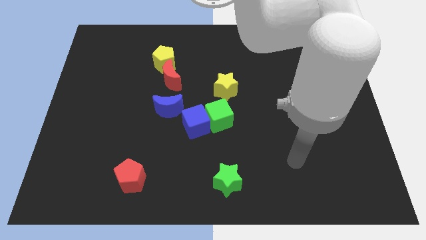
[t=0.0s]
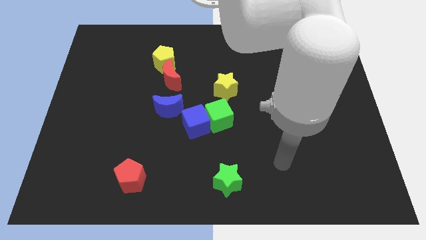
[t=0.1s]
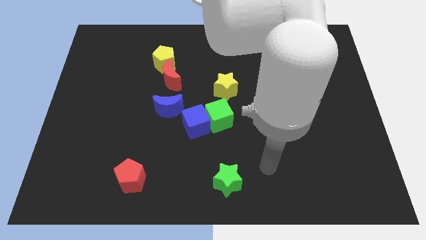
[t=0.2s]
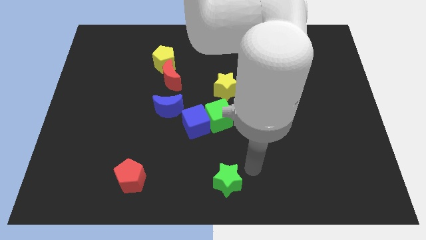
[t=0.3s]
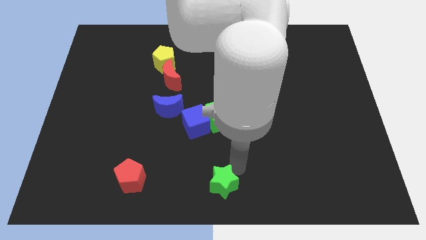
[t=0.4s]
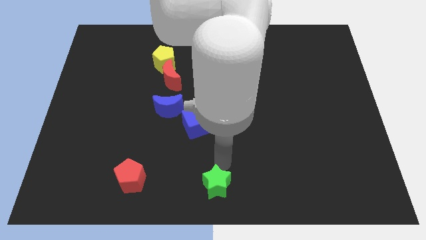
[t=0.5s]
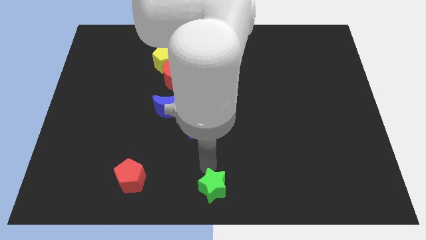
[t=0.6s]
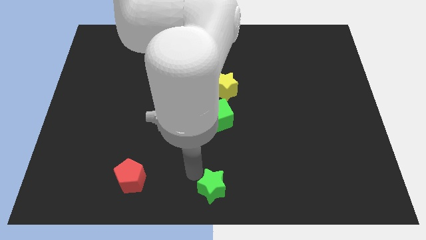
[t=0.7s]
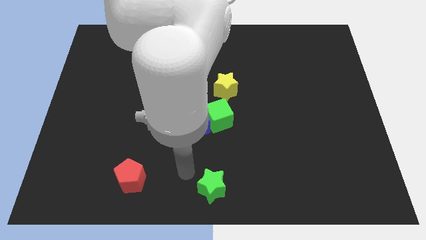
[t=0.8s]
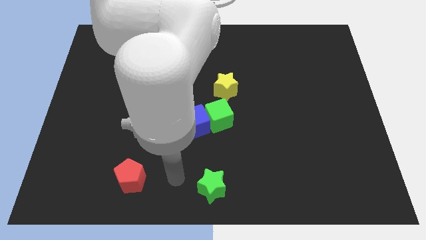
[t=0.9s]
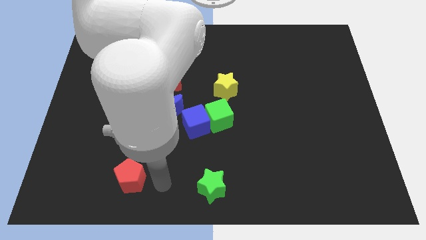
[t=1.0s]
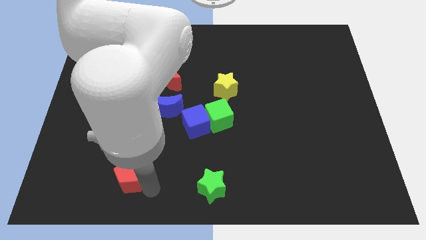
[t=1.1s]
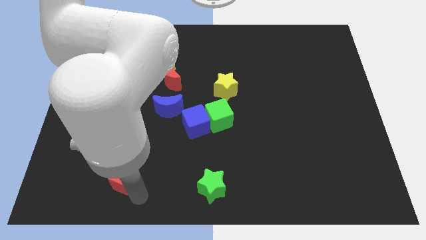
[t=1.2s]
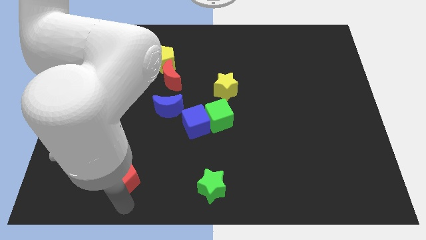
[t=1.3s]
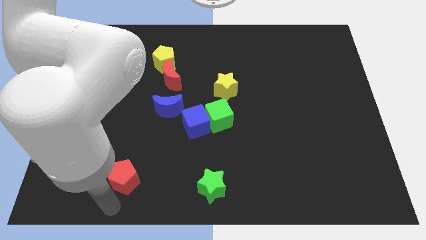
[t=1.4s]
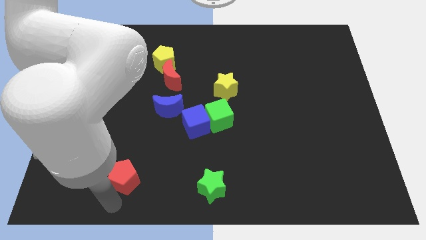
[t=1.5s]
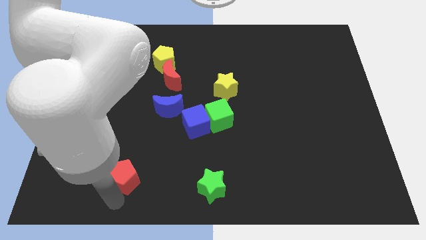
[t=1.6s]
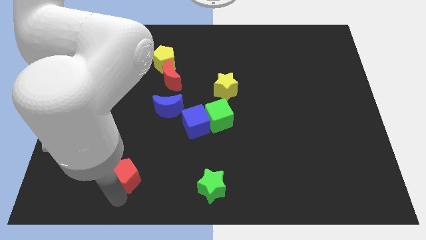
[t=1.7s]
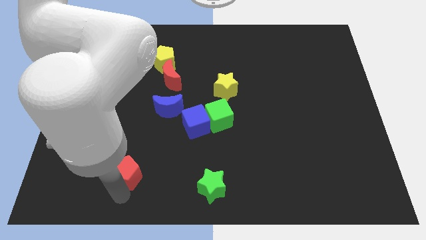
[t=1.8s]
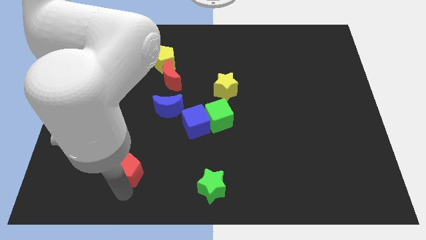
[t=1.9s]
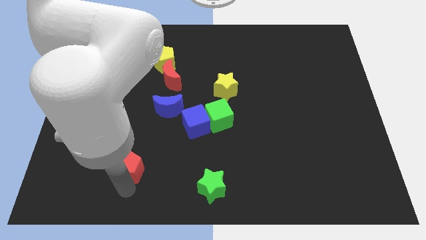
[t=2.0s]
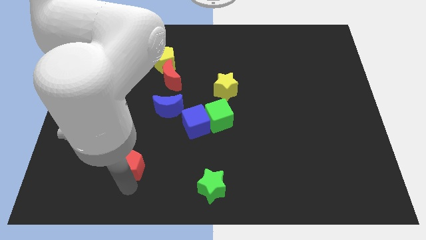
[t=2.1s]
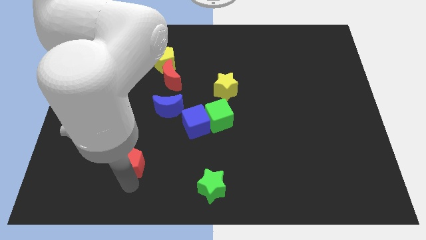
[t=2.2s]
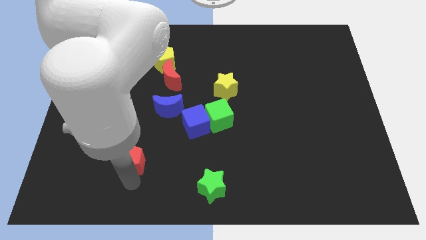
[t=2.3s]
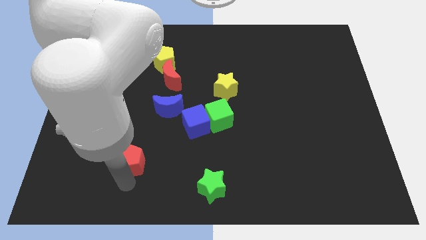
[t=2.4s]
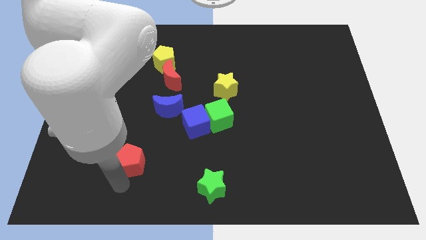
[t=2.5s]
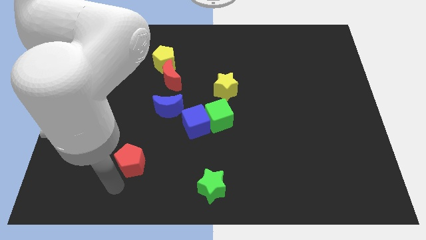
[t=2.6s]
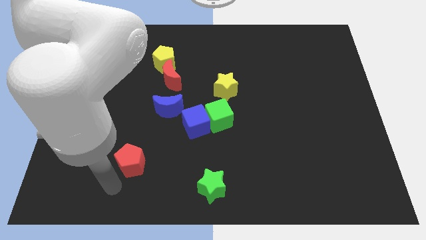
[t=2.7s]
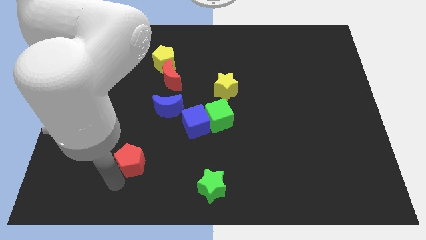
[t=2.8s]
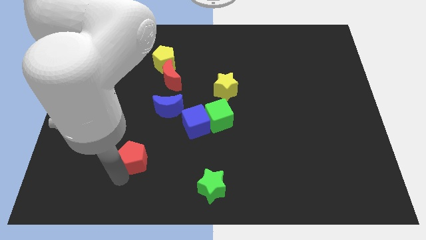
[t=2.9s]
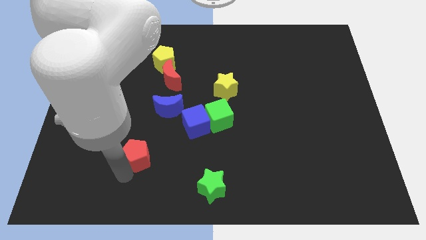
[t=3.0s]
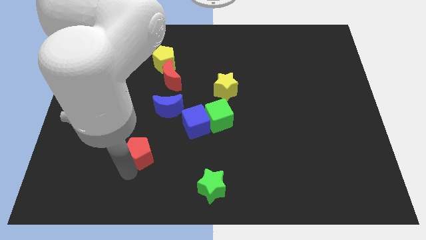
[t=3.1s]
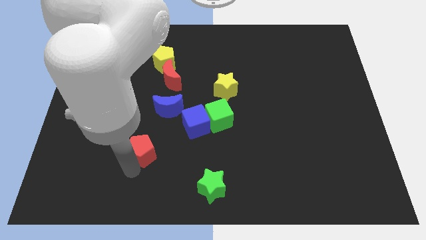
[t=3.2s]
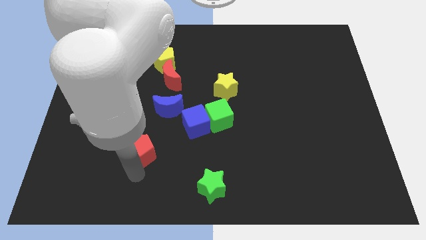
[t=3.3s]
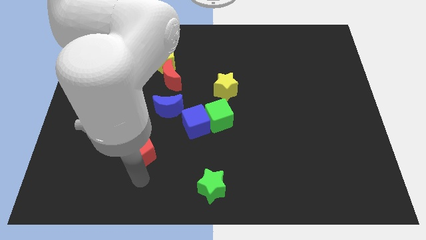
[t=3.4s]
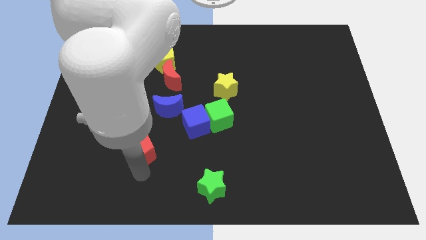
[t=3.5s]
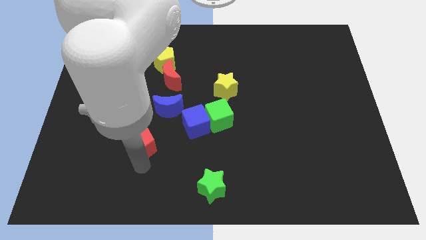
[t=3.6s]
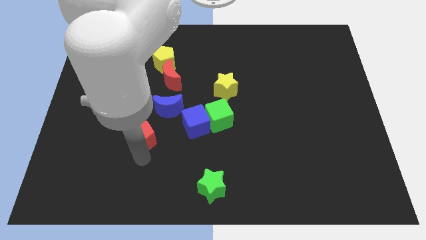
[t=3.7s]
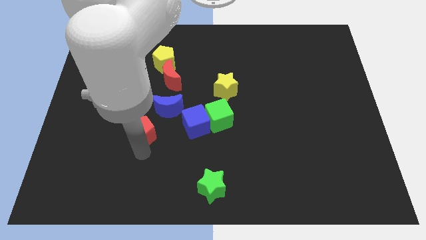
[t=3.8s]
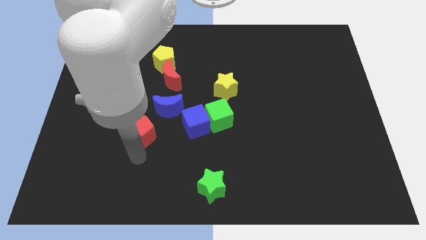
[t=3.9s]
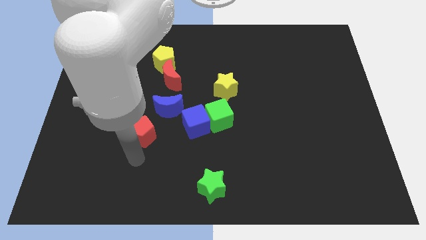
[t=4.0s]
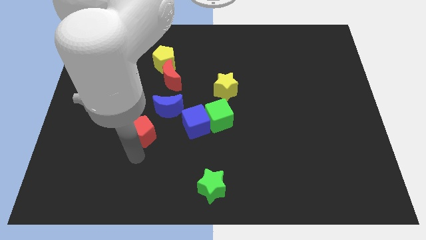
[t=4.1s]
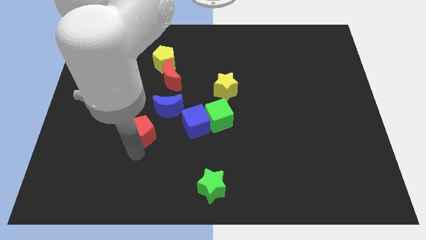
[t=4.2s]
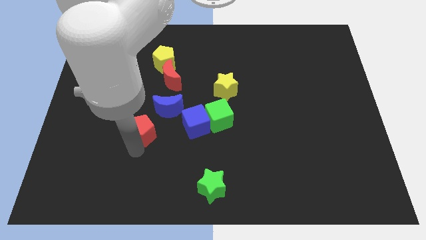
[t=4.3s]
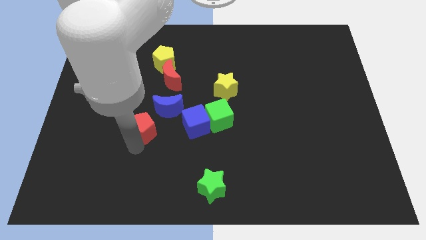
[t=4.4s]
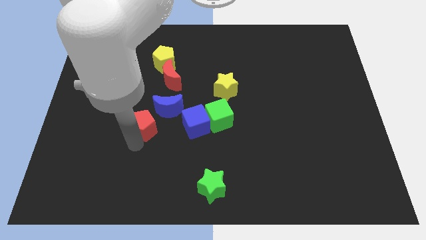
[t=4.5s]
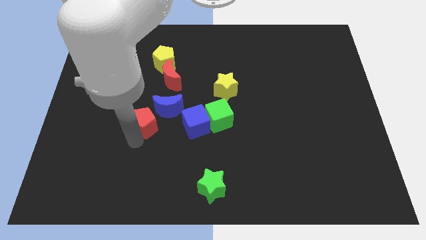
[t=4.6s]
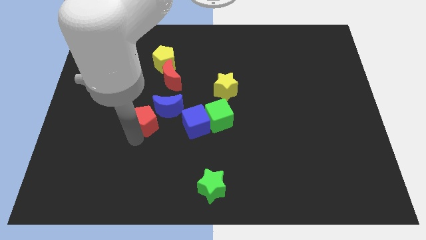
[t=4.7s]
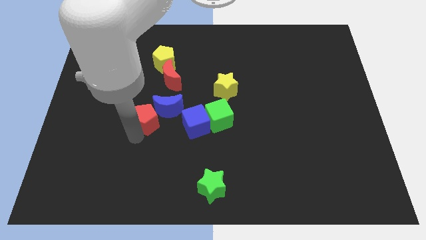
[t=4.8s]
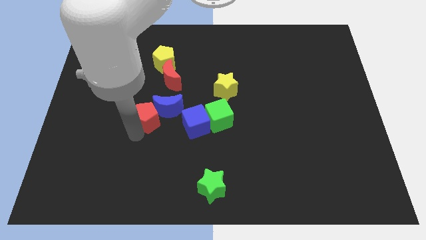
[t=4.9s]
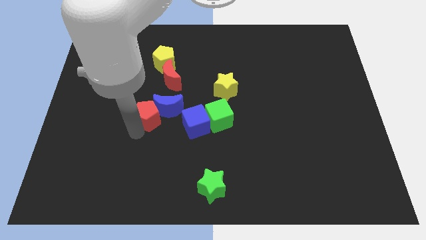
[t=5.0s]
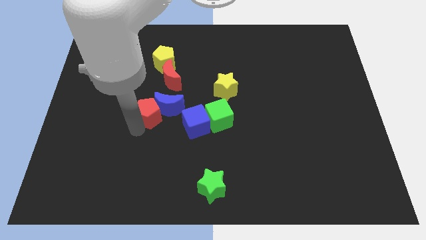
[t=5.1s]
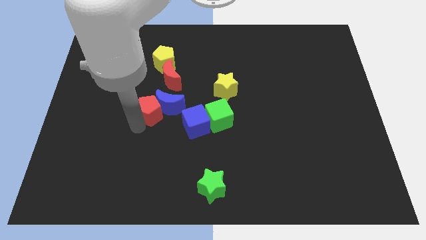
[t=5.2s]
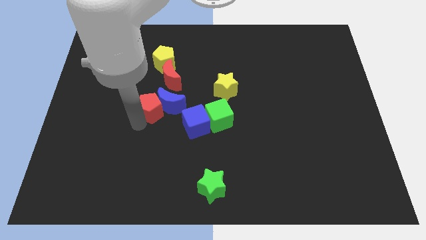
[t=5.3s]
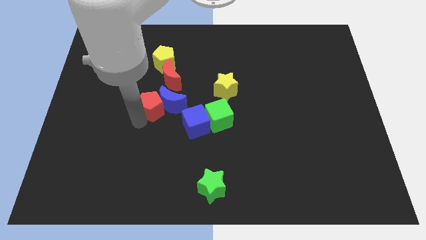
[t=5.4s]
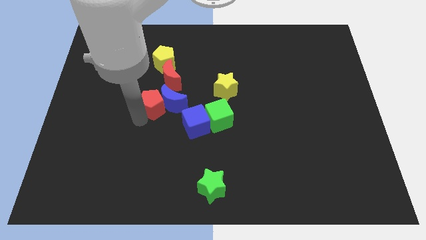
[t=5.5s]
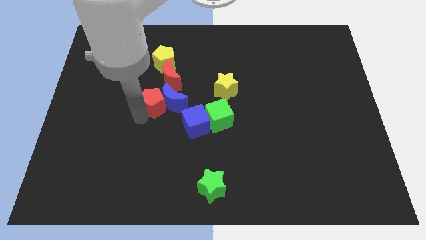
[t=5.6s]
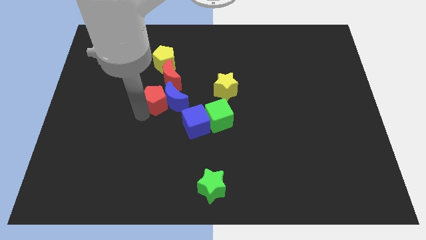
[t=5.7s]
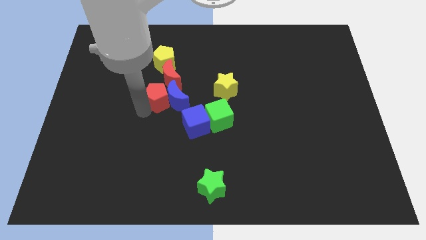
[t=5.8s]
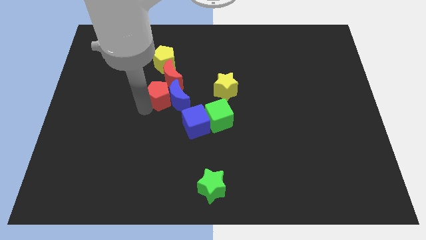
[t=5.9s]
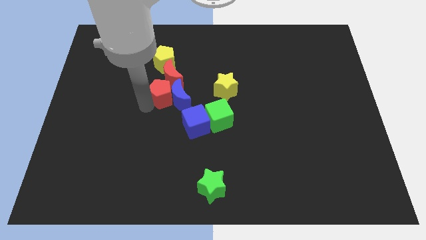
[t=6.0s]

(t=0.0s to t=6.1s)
slide the red pentagon next to the red moon

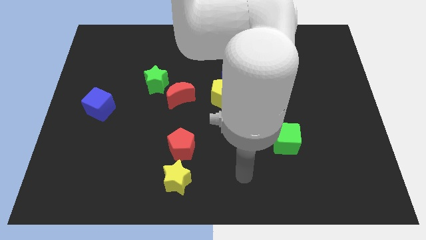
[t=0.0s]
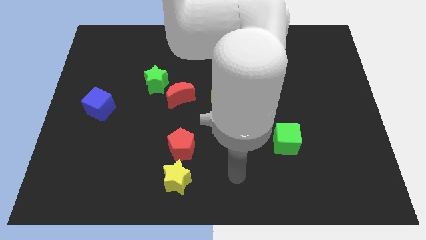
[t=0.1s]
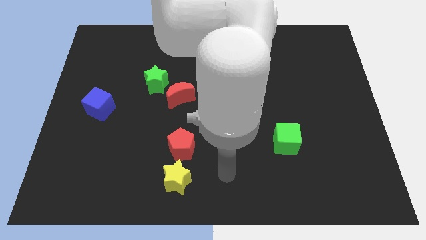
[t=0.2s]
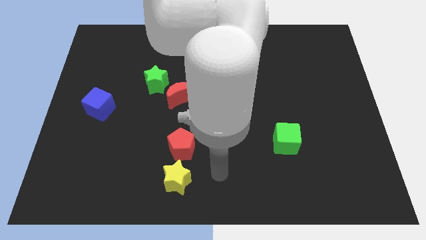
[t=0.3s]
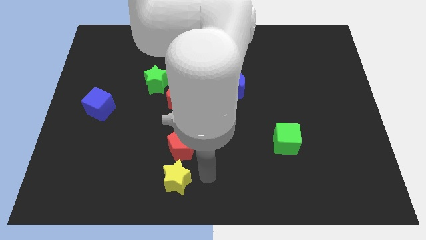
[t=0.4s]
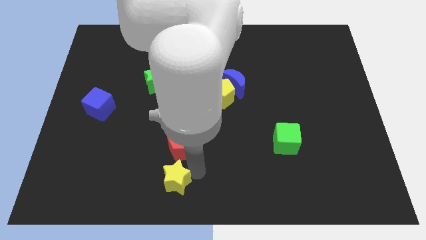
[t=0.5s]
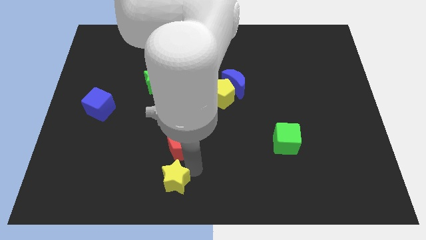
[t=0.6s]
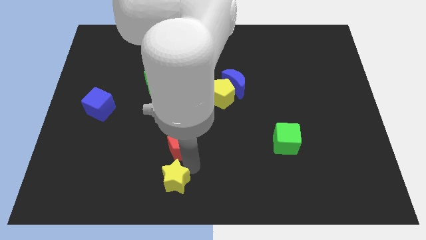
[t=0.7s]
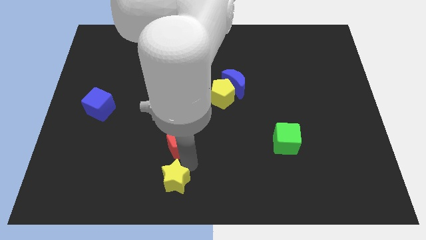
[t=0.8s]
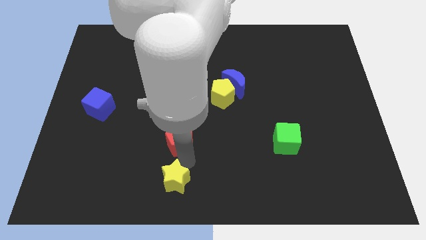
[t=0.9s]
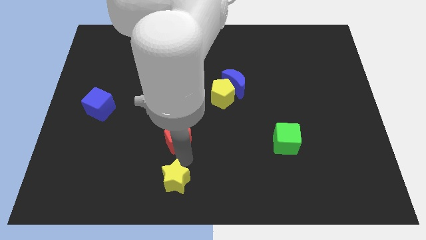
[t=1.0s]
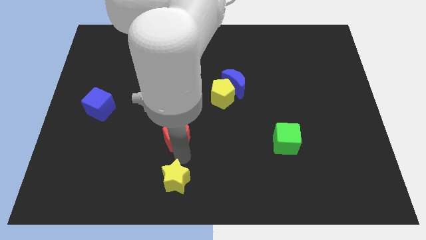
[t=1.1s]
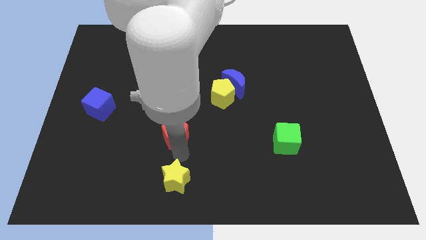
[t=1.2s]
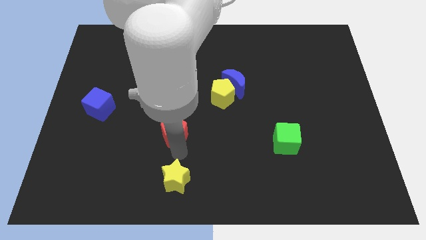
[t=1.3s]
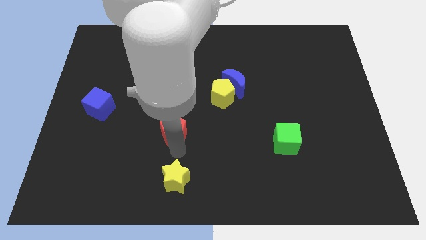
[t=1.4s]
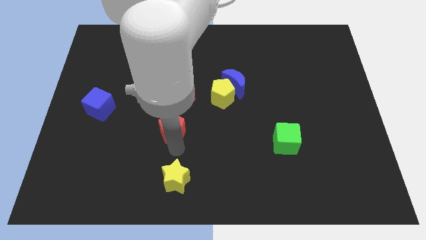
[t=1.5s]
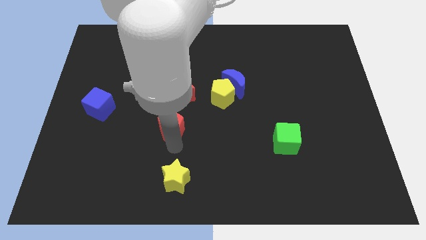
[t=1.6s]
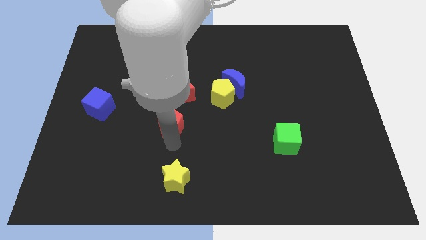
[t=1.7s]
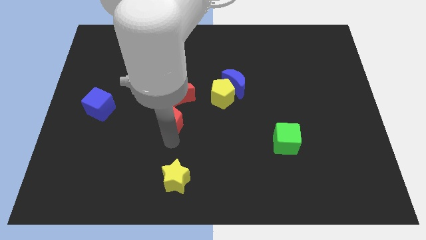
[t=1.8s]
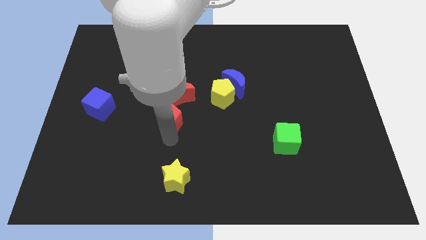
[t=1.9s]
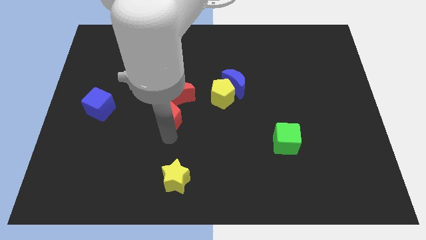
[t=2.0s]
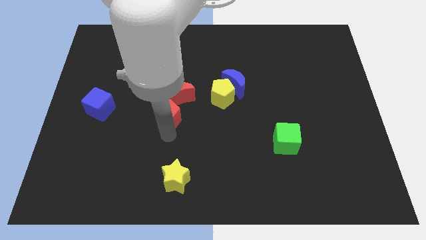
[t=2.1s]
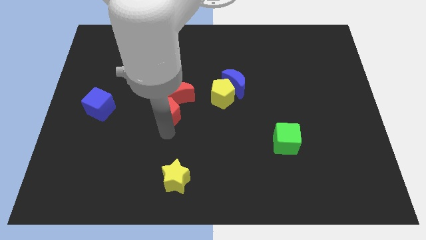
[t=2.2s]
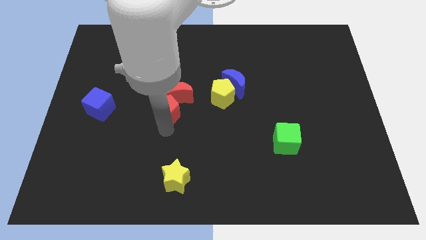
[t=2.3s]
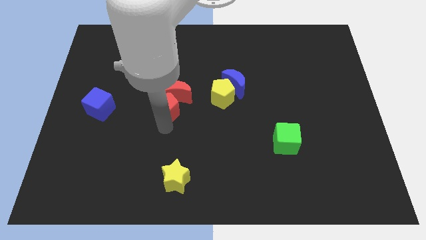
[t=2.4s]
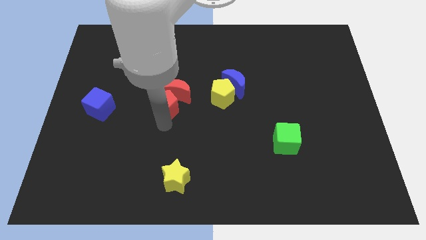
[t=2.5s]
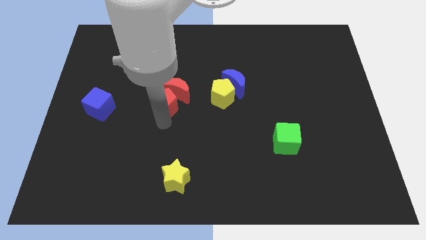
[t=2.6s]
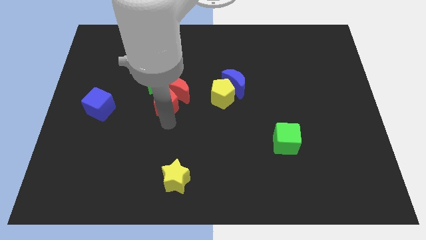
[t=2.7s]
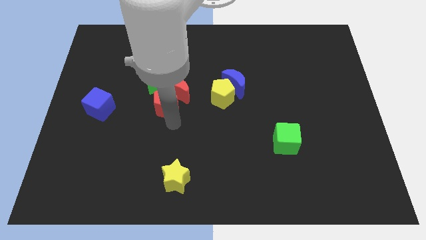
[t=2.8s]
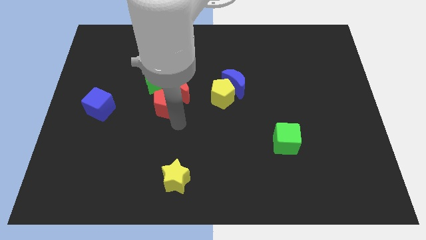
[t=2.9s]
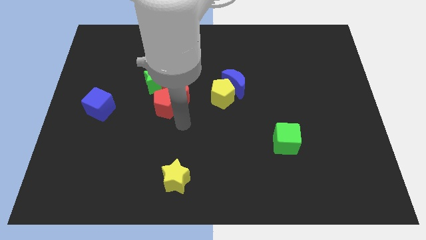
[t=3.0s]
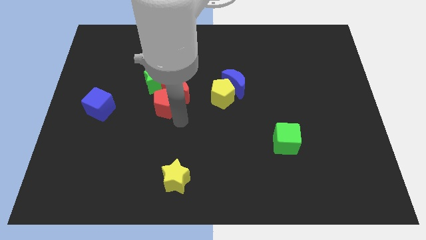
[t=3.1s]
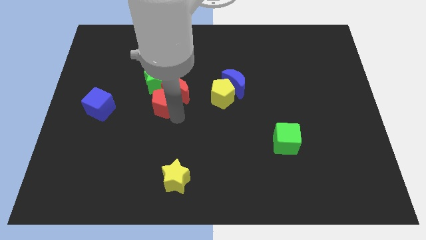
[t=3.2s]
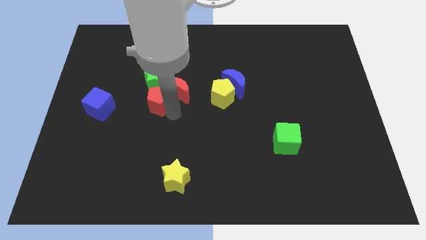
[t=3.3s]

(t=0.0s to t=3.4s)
push the red pentagon next to the green star
